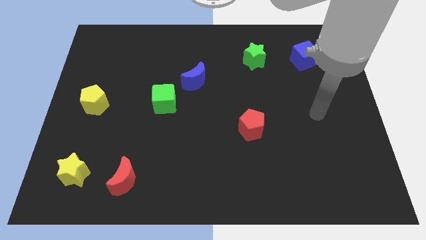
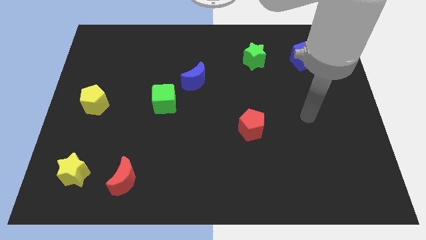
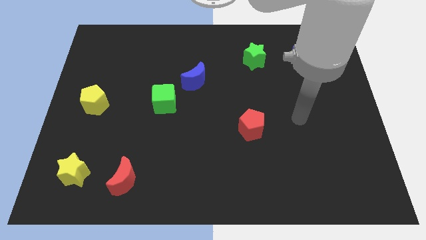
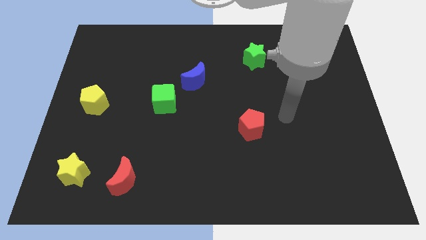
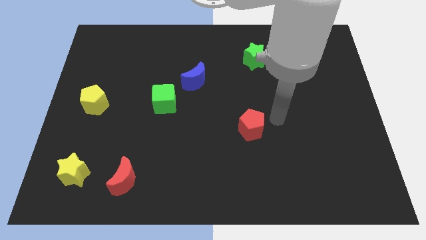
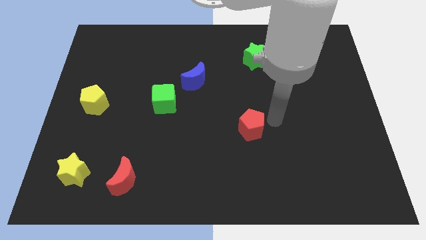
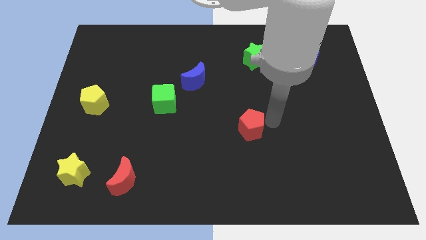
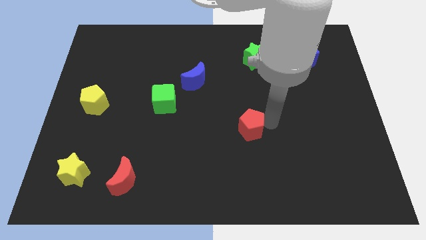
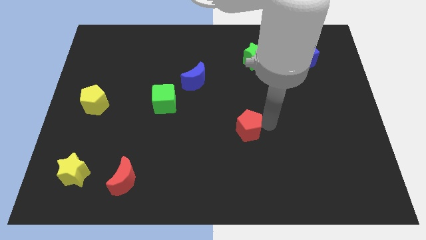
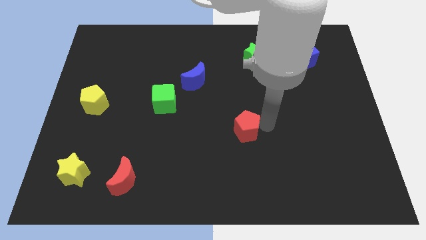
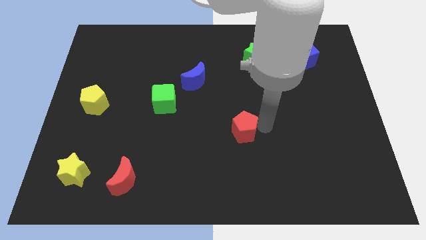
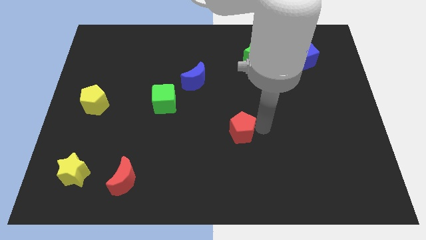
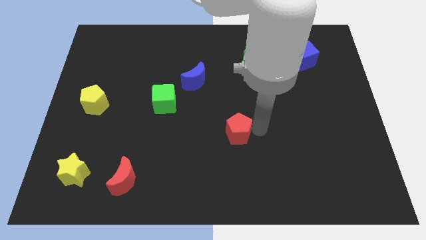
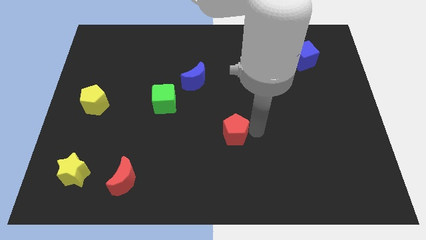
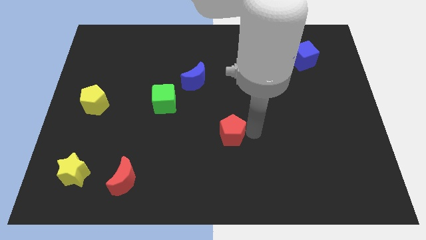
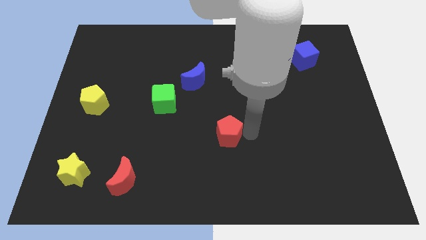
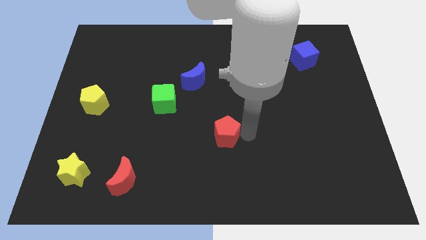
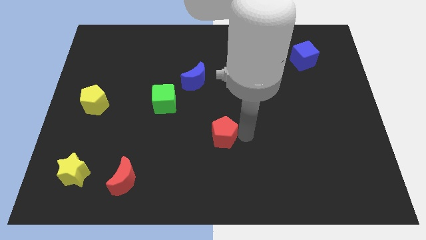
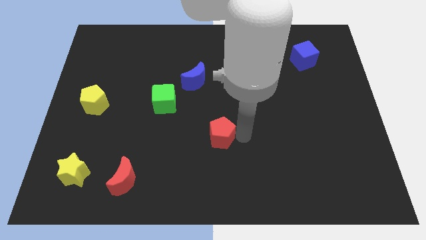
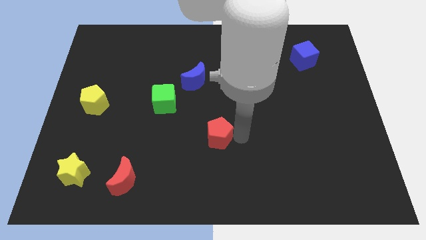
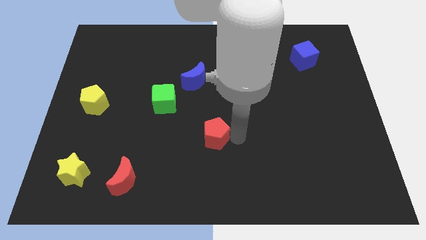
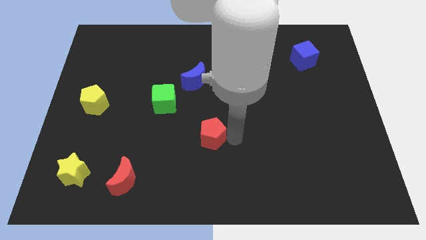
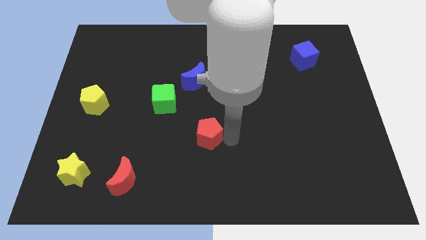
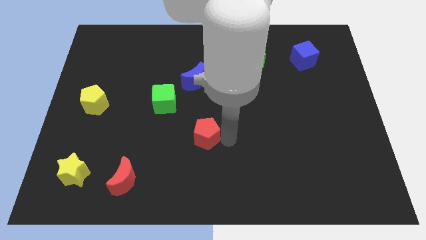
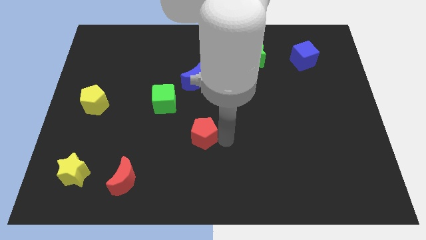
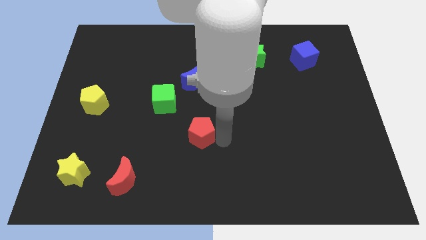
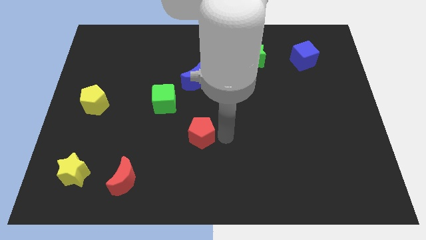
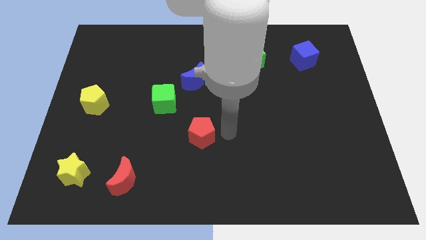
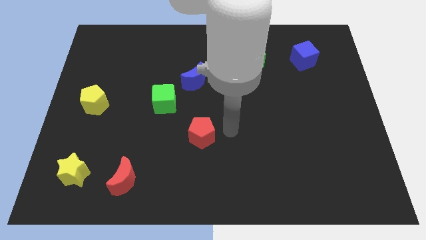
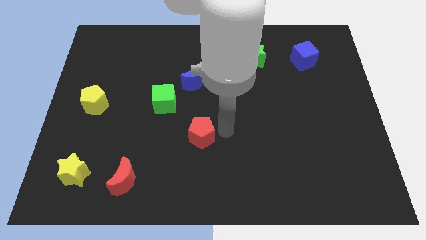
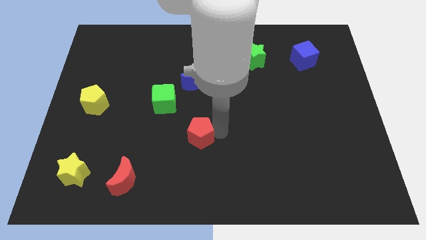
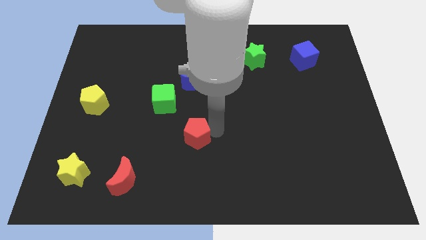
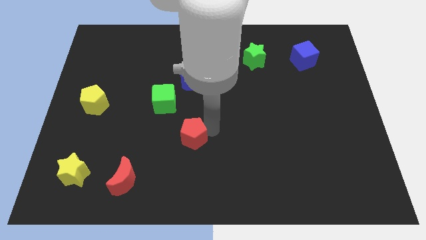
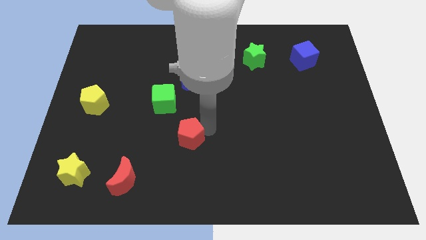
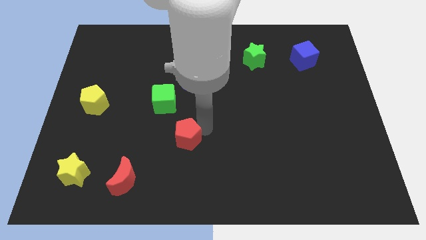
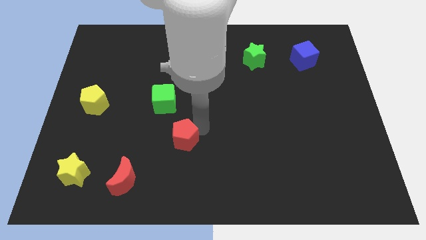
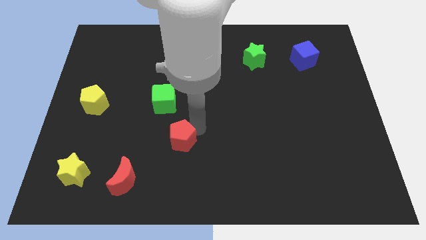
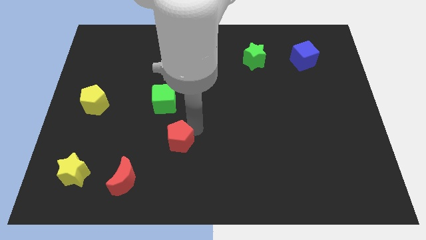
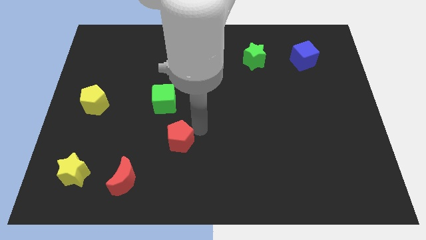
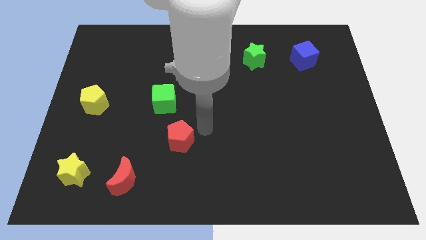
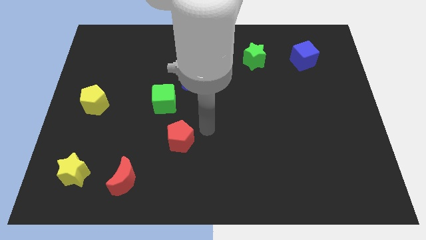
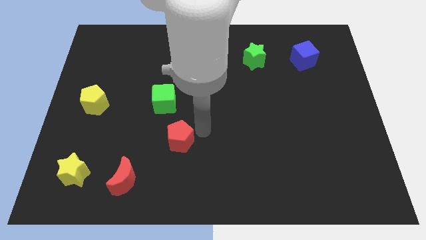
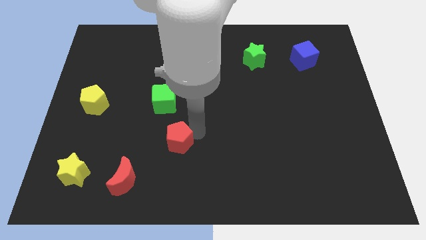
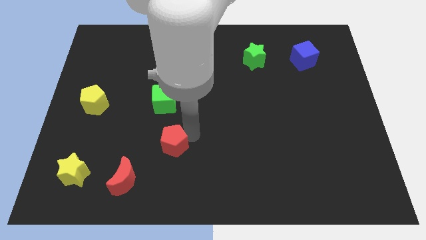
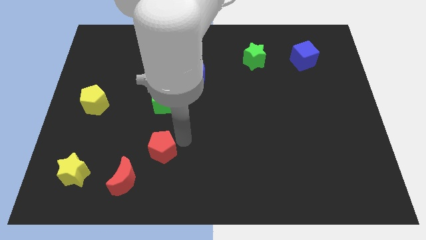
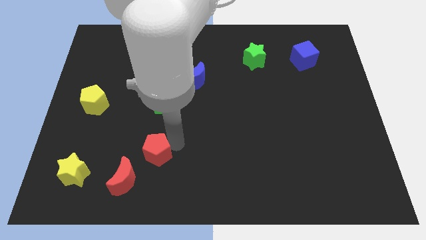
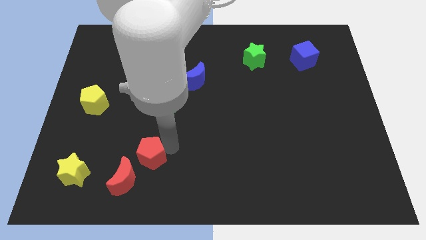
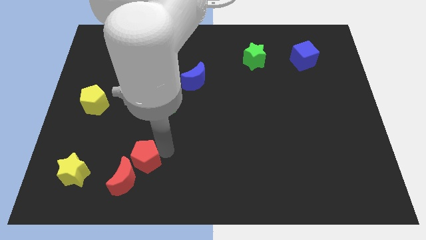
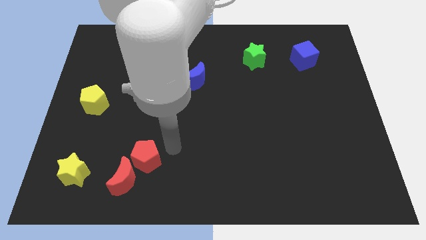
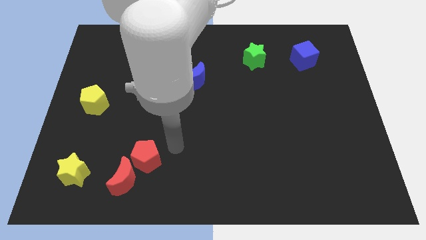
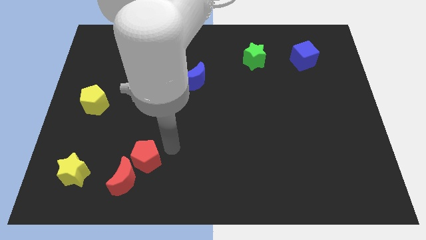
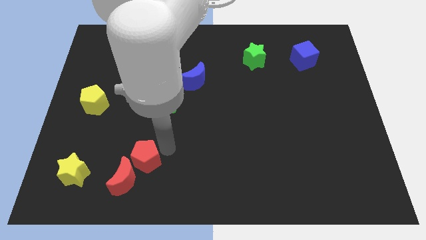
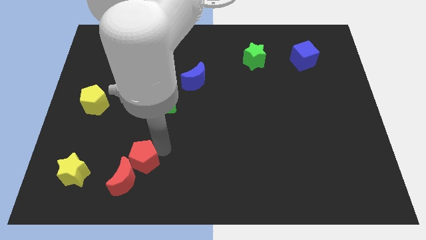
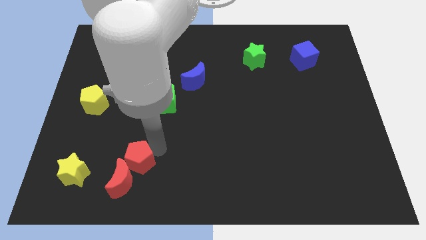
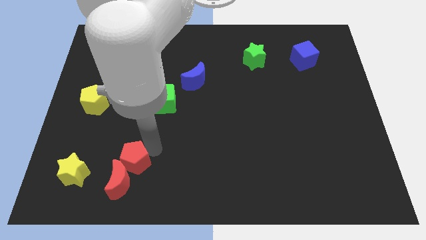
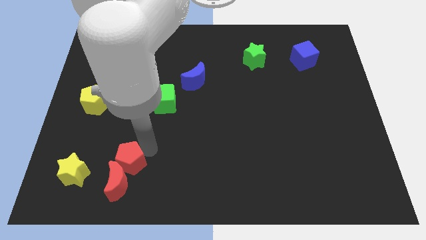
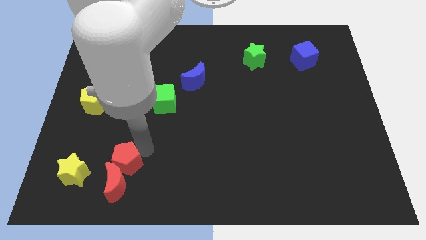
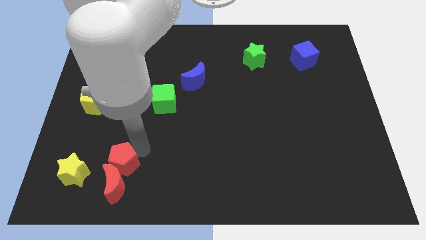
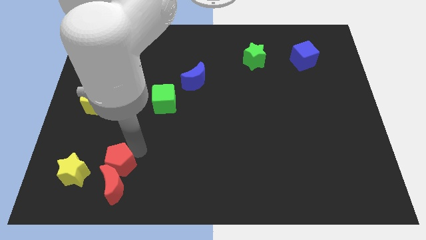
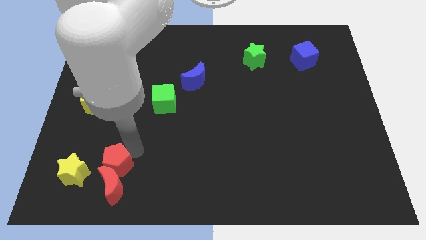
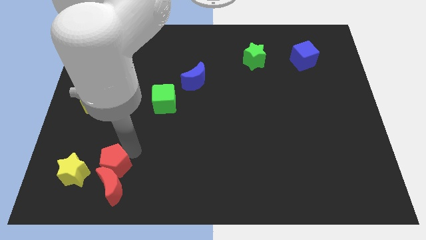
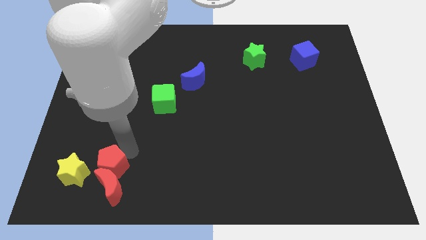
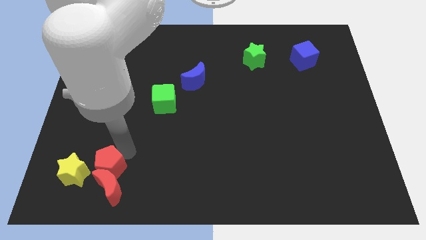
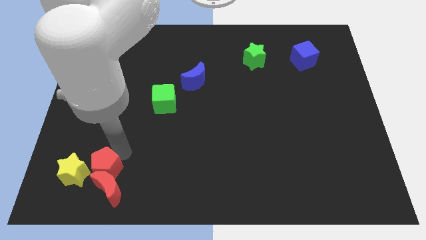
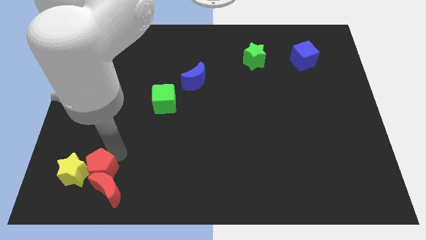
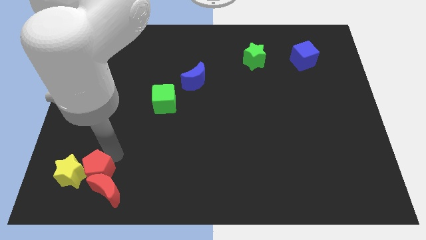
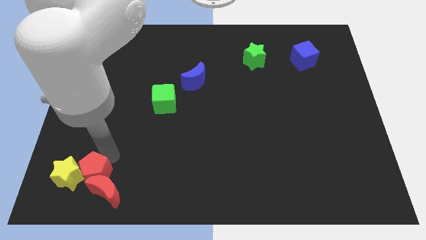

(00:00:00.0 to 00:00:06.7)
put the red pentagon to the left of the red moon
